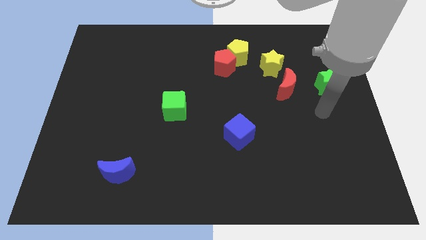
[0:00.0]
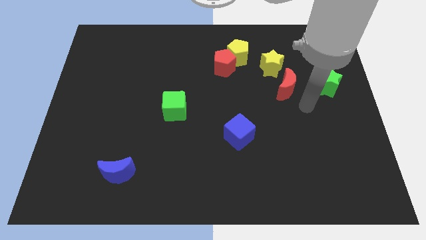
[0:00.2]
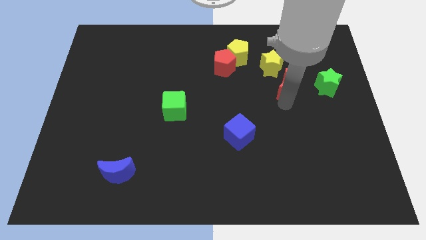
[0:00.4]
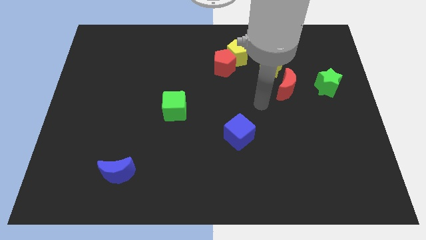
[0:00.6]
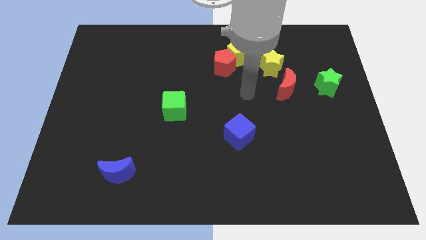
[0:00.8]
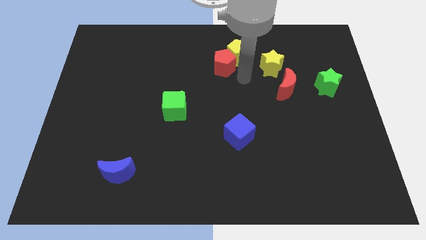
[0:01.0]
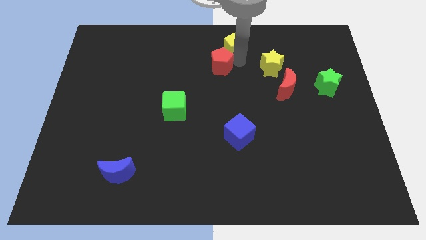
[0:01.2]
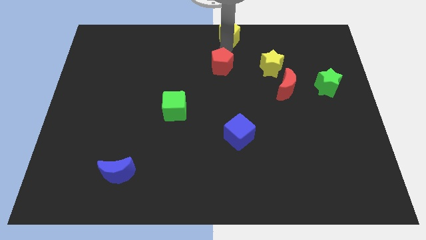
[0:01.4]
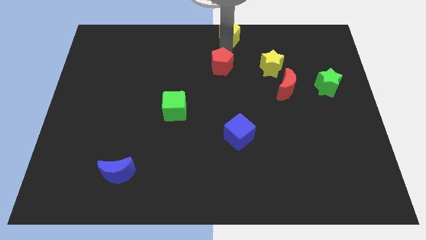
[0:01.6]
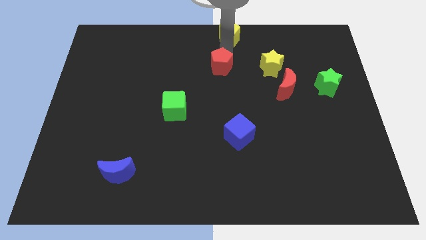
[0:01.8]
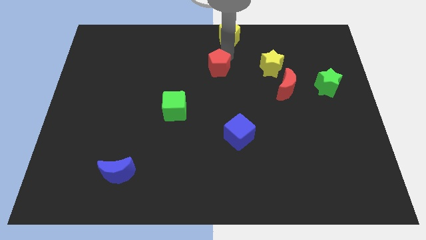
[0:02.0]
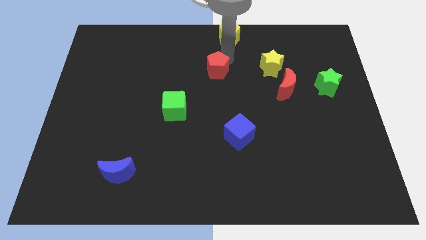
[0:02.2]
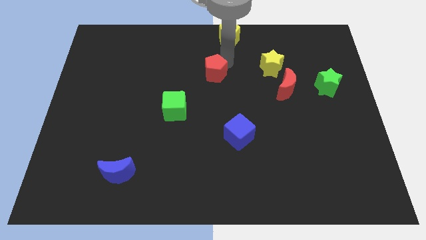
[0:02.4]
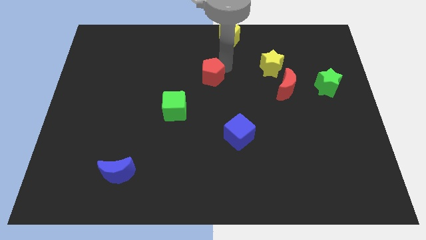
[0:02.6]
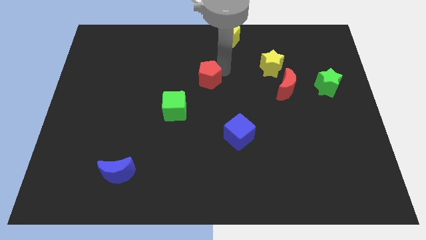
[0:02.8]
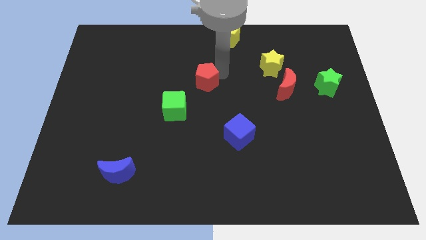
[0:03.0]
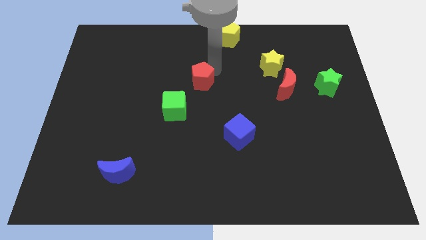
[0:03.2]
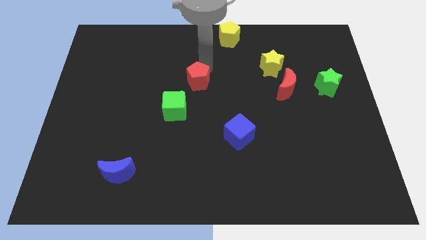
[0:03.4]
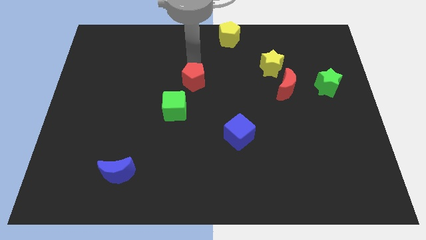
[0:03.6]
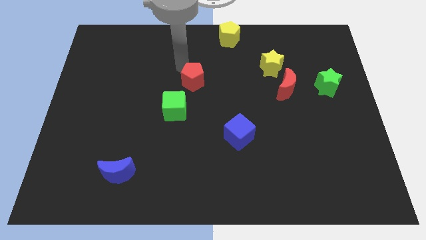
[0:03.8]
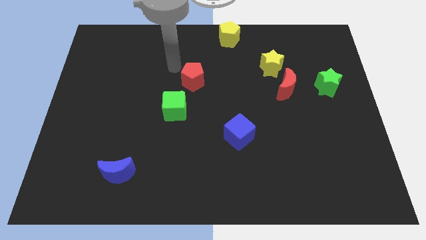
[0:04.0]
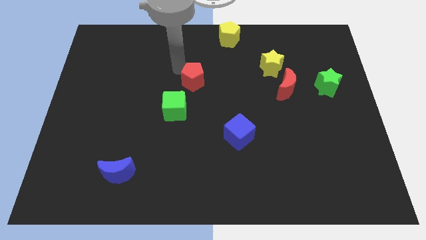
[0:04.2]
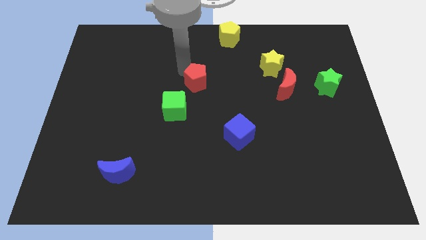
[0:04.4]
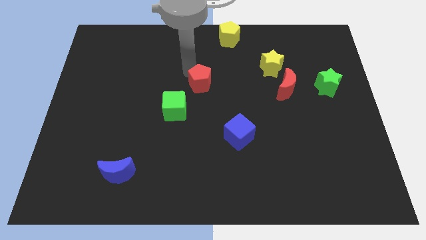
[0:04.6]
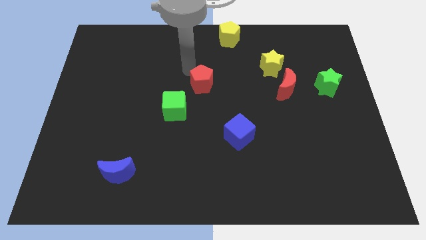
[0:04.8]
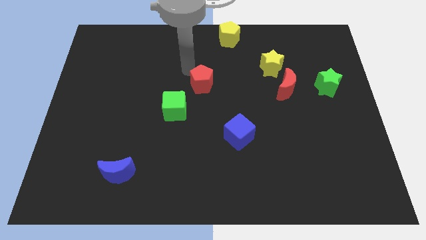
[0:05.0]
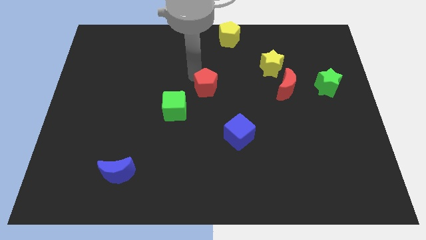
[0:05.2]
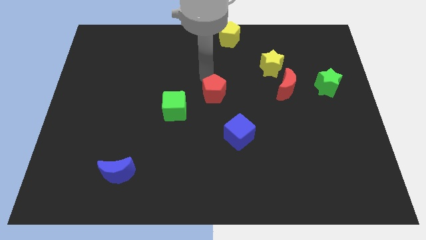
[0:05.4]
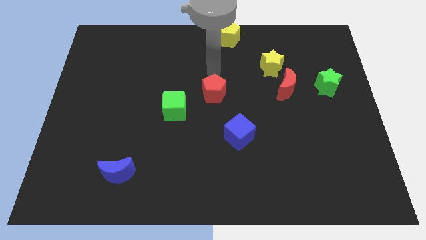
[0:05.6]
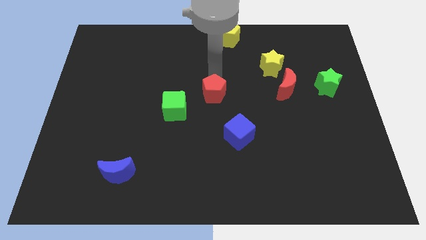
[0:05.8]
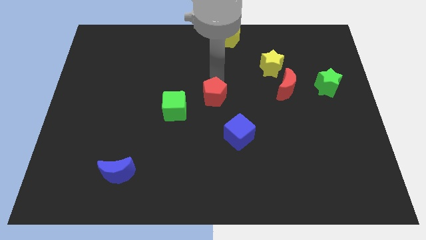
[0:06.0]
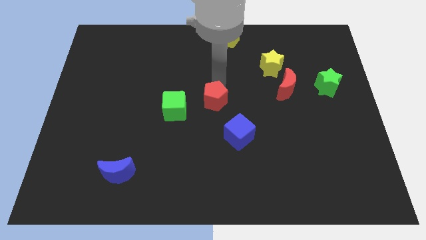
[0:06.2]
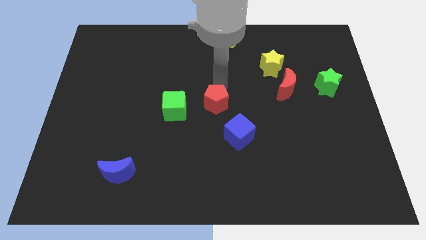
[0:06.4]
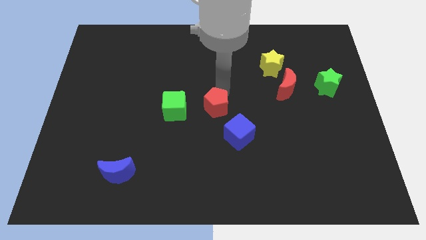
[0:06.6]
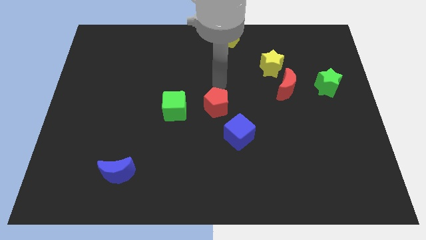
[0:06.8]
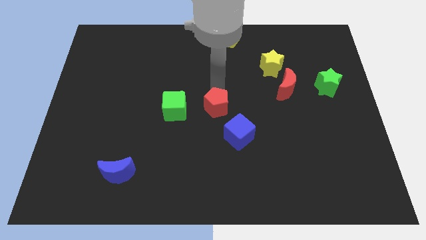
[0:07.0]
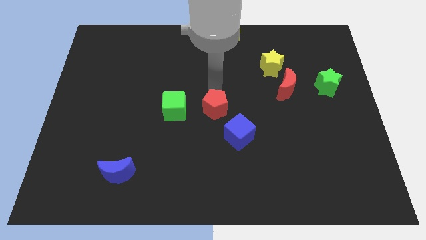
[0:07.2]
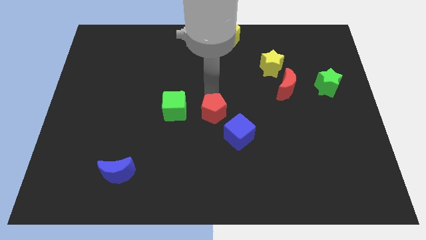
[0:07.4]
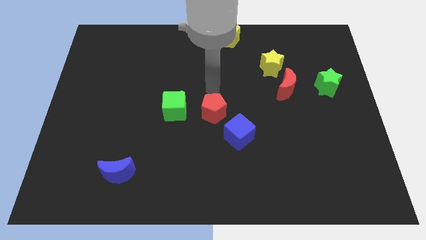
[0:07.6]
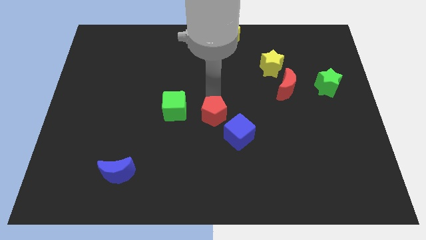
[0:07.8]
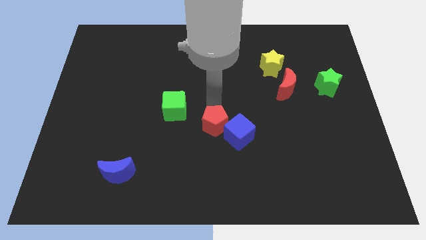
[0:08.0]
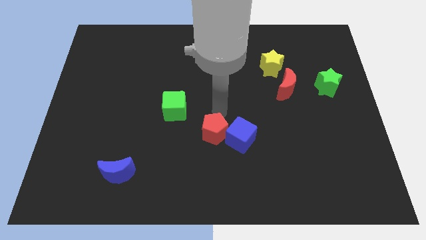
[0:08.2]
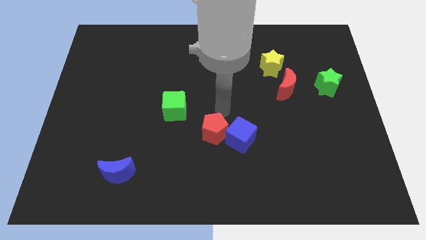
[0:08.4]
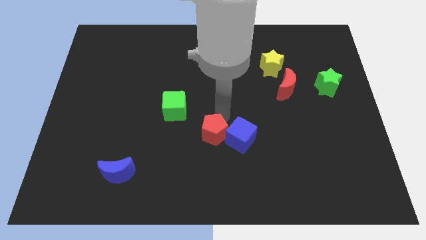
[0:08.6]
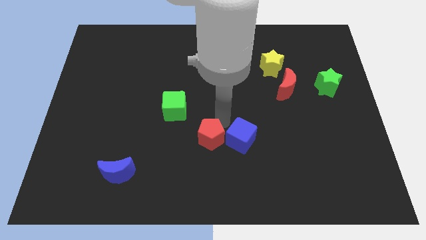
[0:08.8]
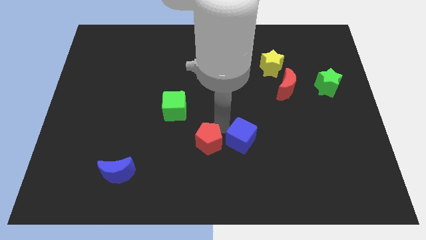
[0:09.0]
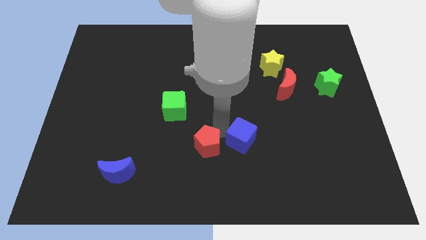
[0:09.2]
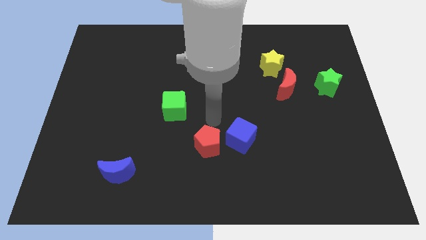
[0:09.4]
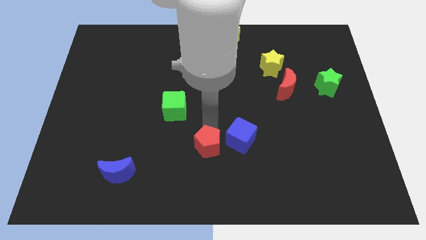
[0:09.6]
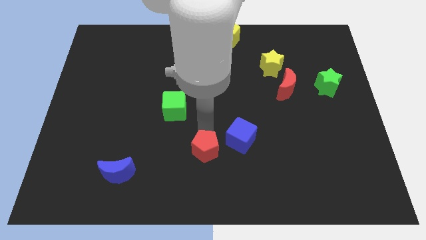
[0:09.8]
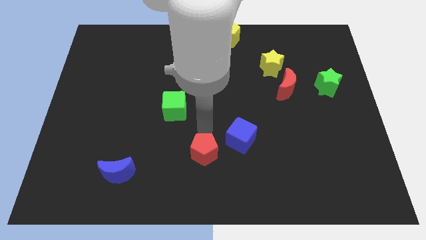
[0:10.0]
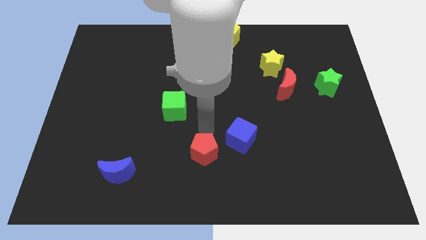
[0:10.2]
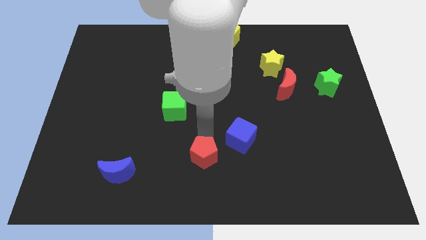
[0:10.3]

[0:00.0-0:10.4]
move the red pentagon to the bottom

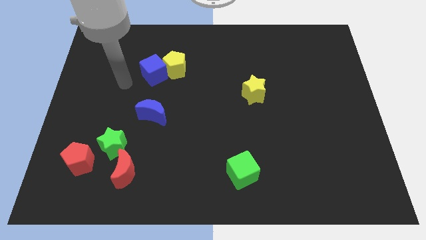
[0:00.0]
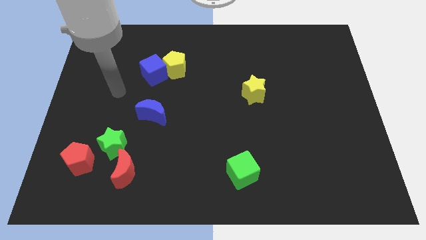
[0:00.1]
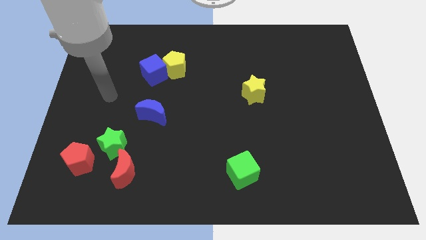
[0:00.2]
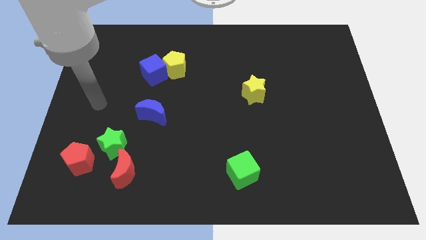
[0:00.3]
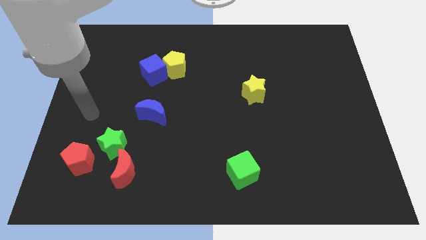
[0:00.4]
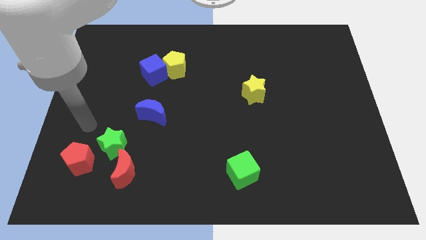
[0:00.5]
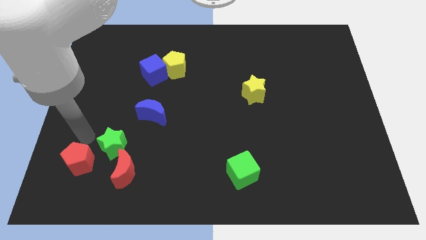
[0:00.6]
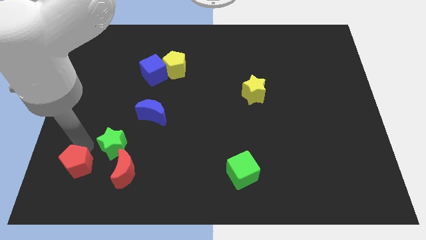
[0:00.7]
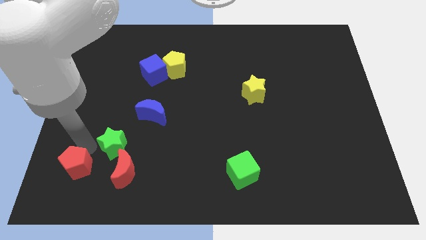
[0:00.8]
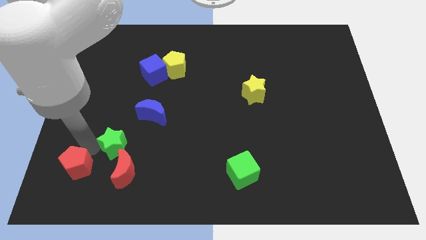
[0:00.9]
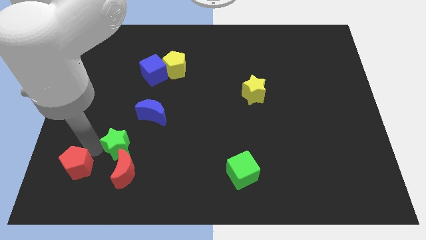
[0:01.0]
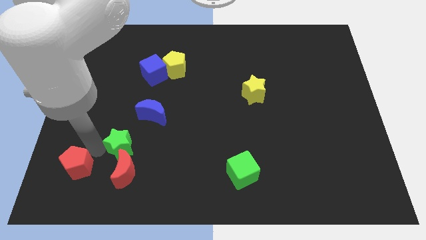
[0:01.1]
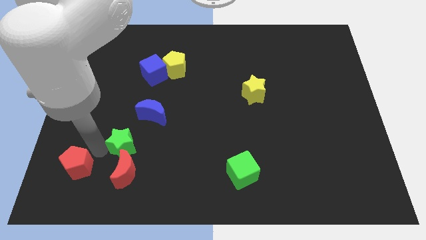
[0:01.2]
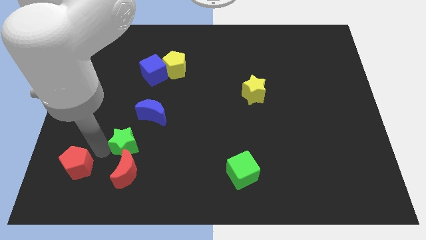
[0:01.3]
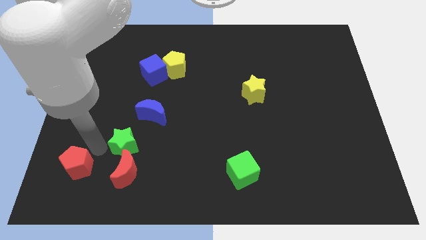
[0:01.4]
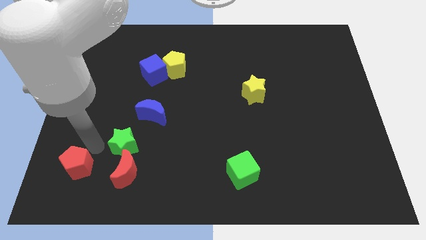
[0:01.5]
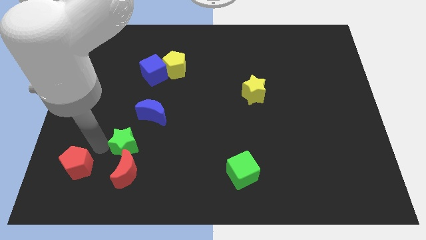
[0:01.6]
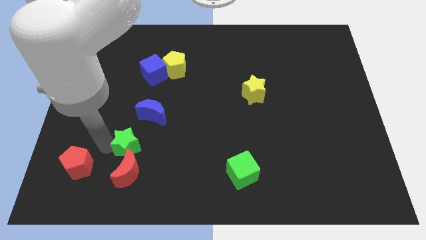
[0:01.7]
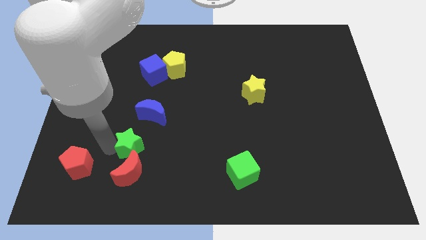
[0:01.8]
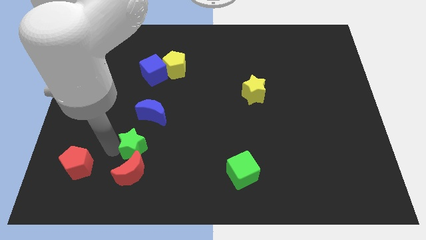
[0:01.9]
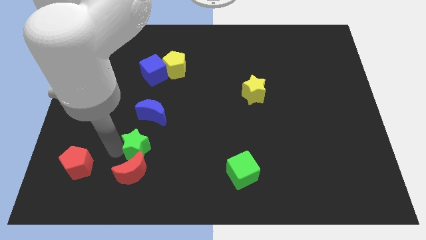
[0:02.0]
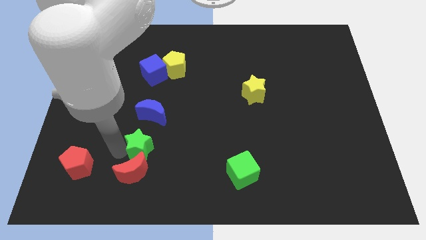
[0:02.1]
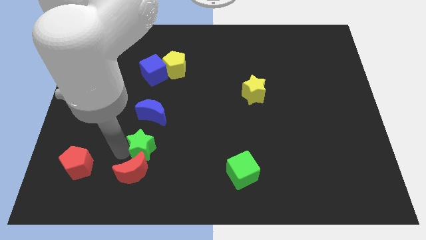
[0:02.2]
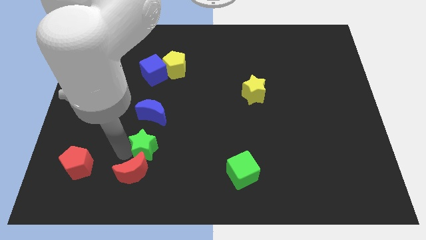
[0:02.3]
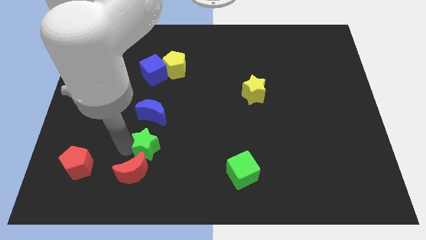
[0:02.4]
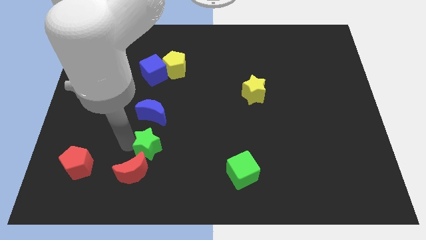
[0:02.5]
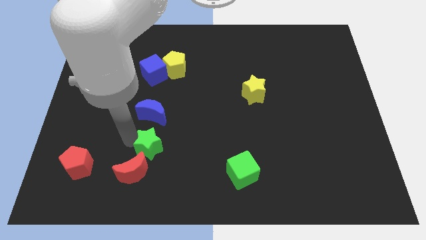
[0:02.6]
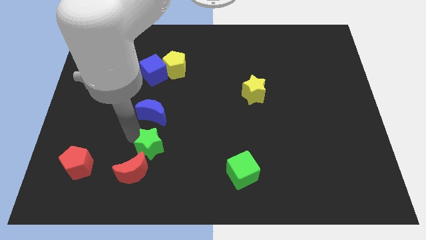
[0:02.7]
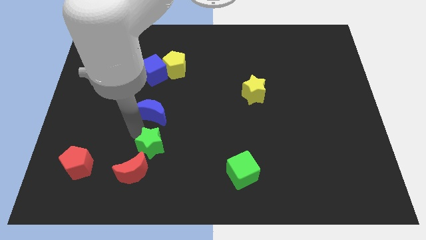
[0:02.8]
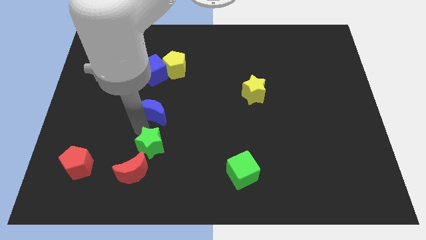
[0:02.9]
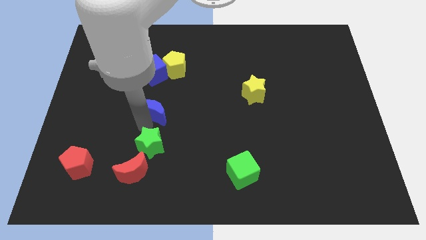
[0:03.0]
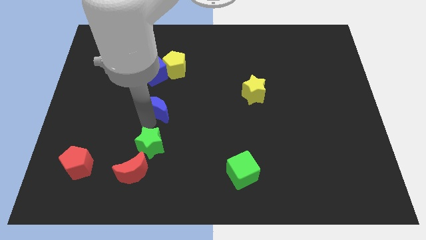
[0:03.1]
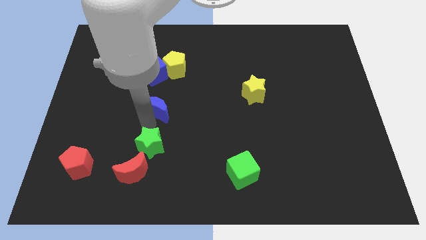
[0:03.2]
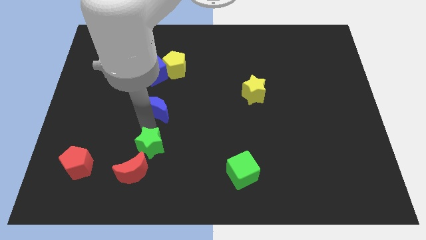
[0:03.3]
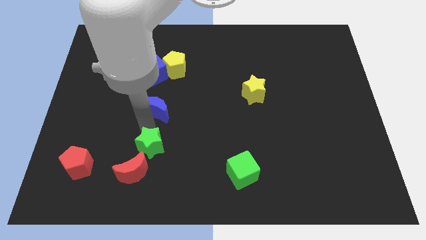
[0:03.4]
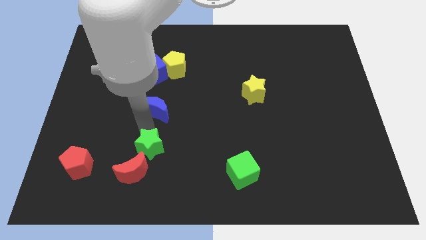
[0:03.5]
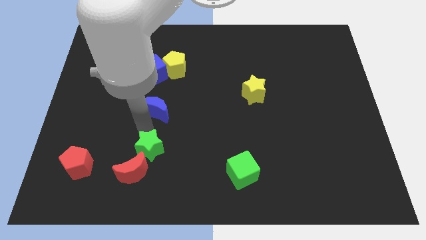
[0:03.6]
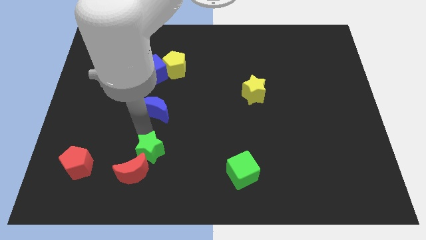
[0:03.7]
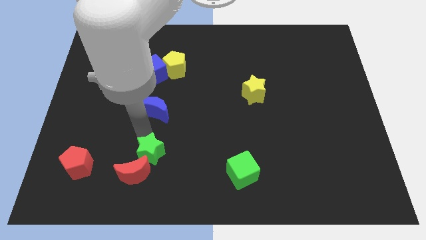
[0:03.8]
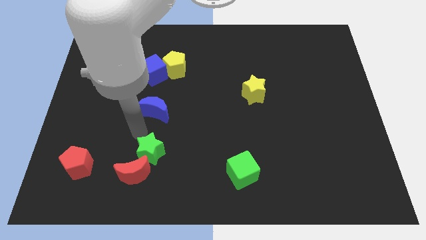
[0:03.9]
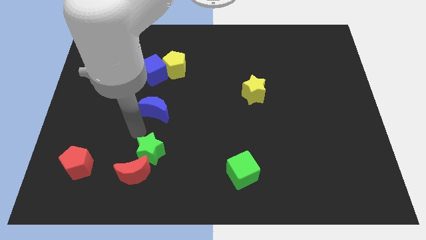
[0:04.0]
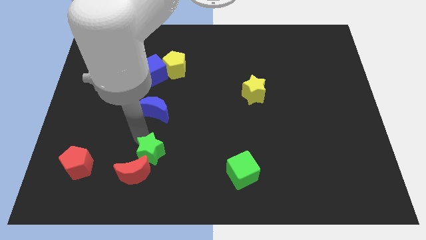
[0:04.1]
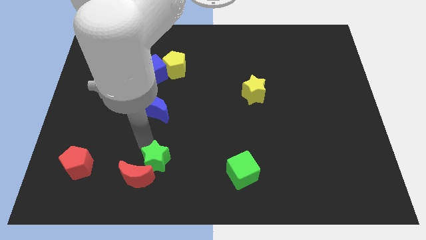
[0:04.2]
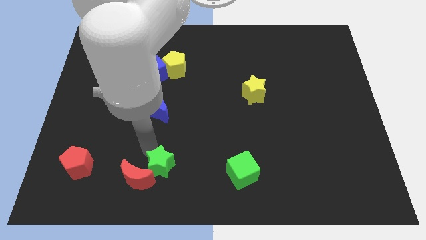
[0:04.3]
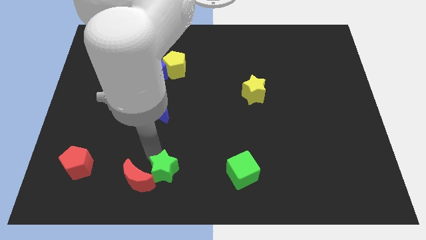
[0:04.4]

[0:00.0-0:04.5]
push the green star to the bottom side
